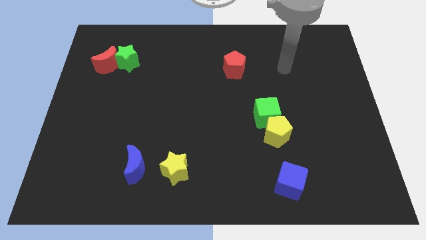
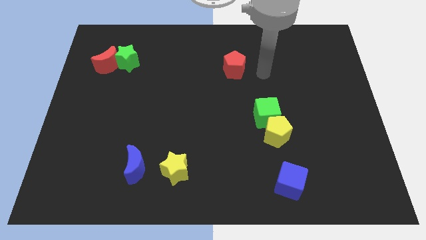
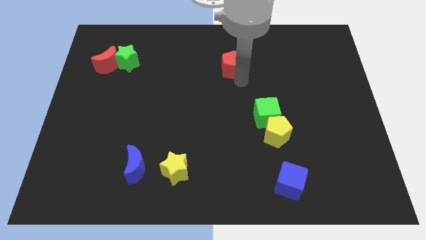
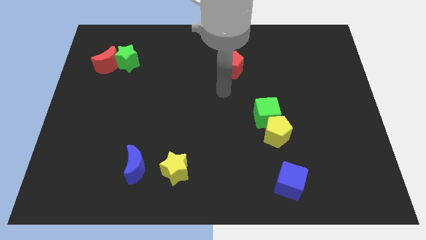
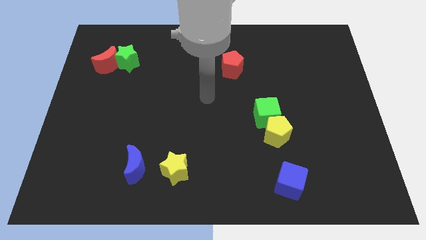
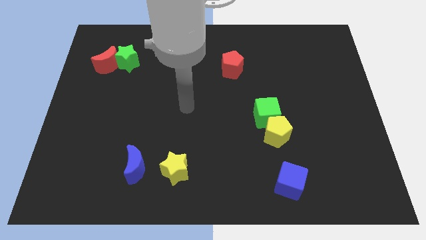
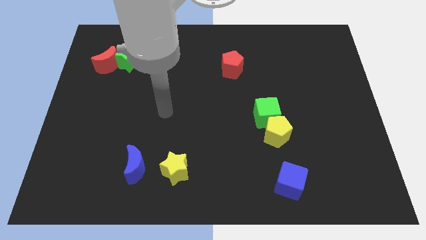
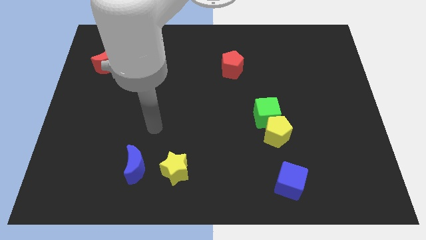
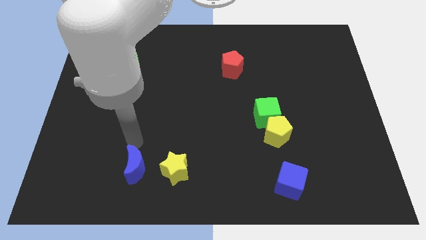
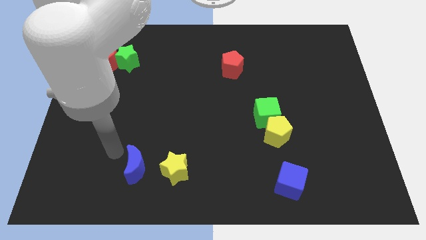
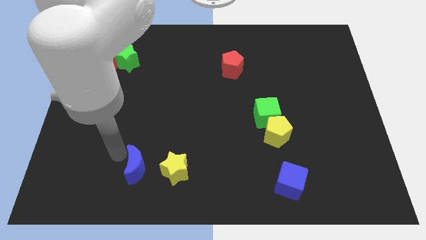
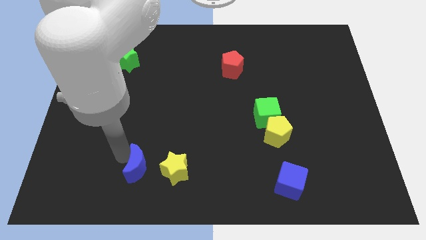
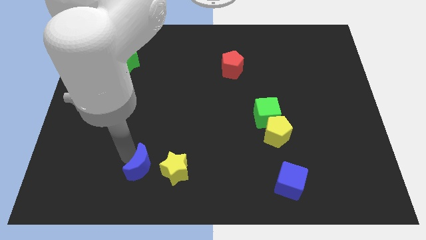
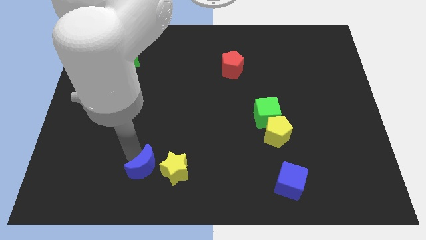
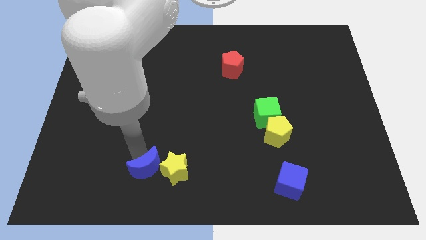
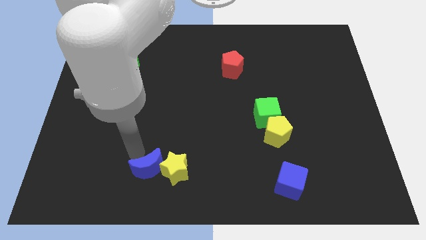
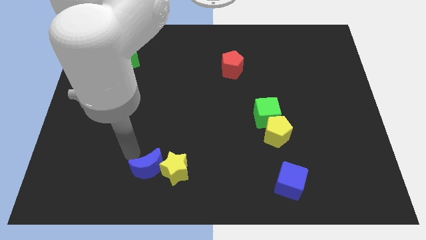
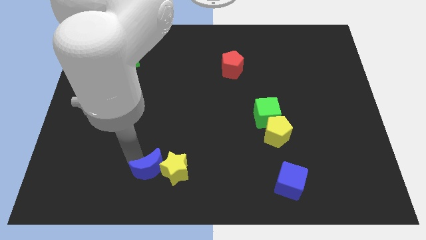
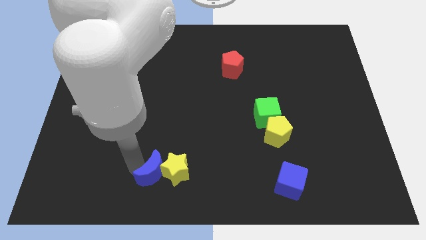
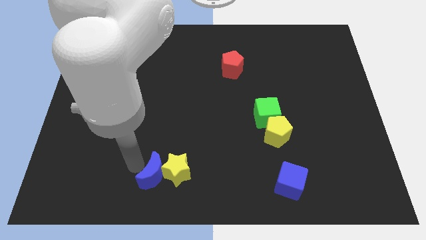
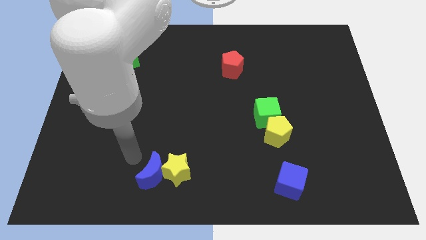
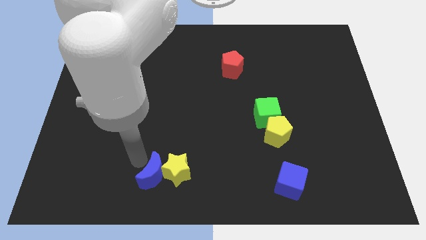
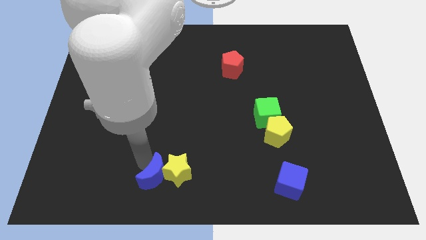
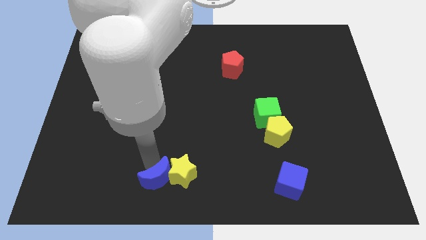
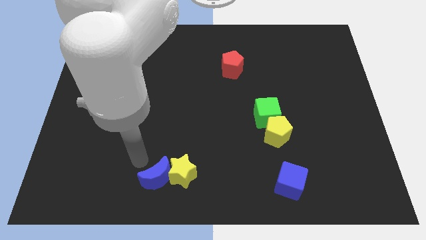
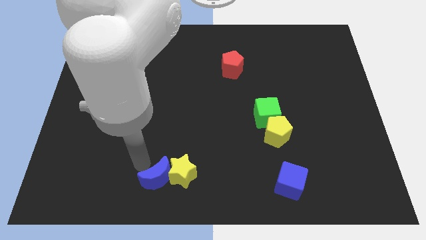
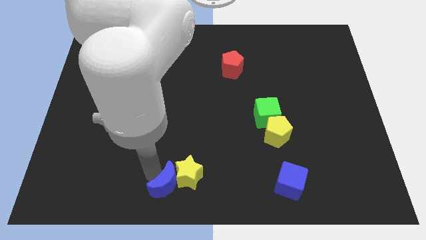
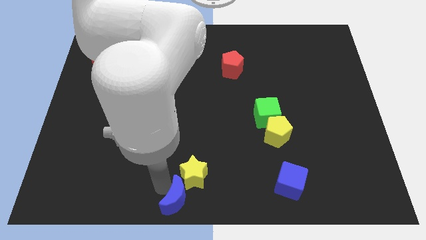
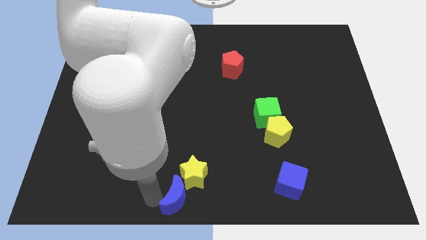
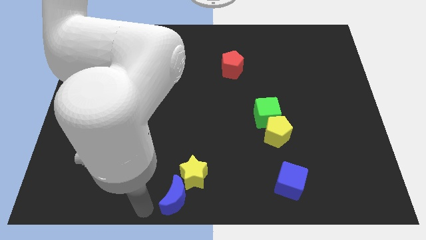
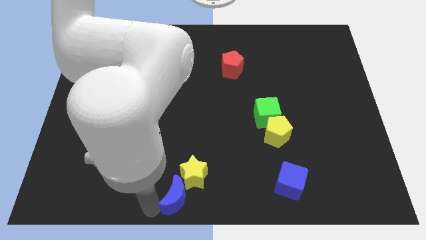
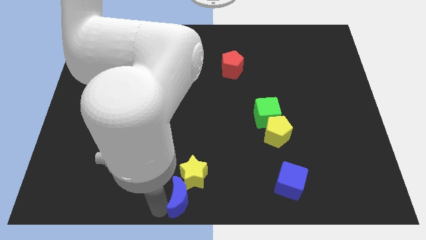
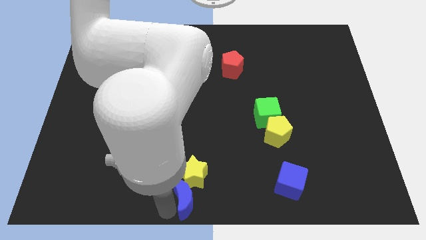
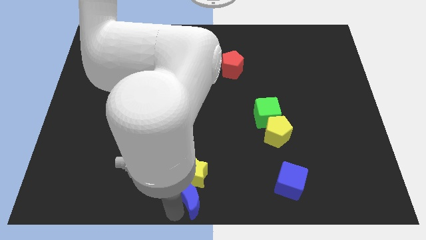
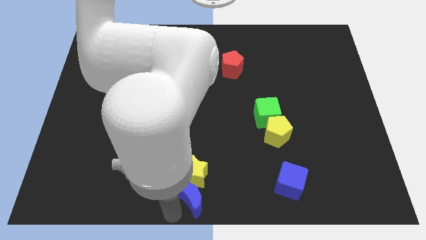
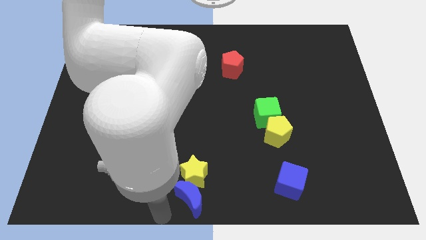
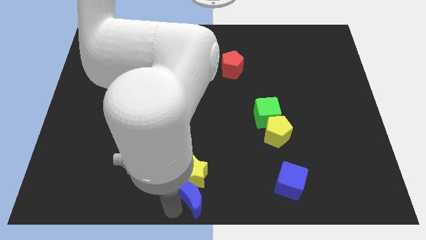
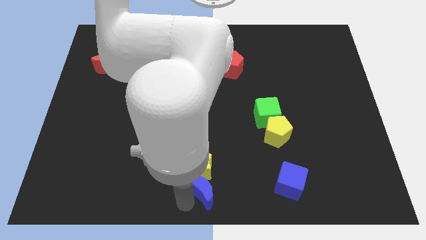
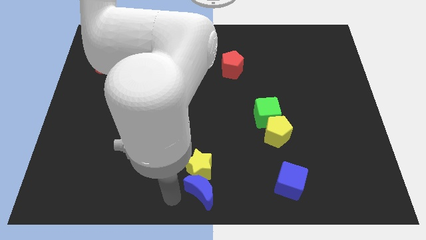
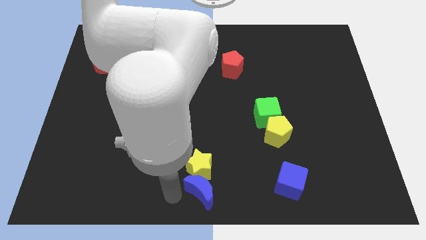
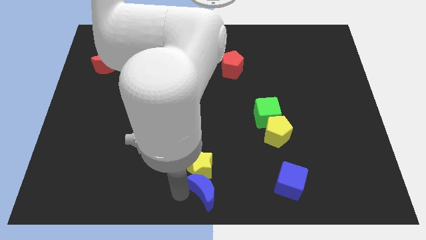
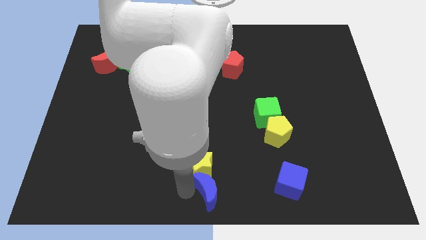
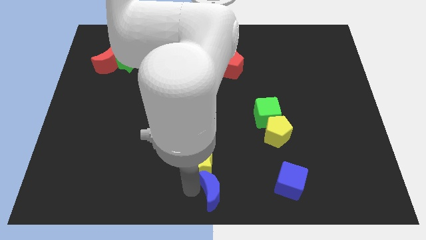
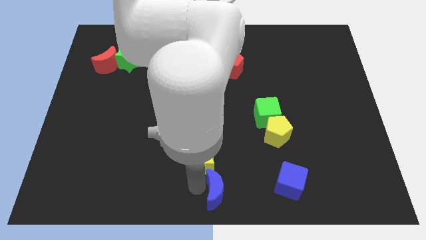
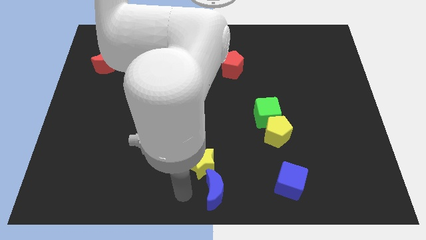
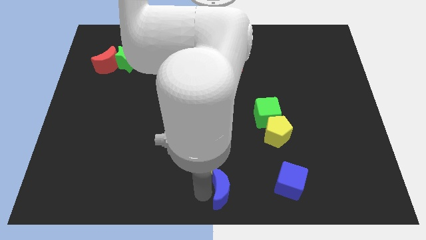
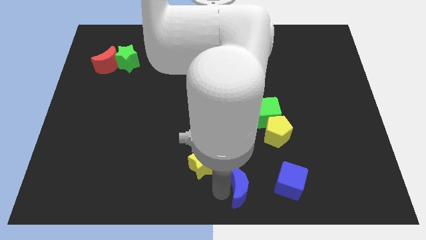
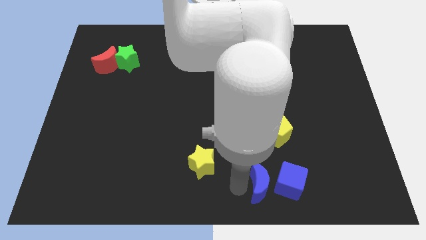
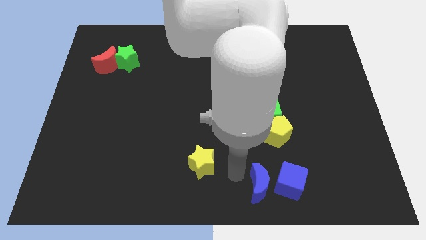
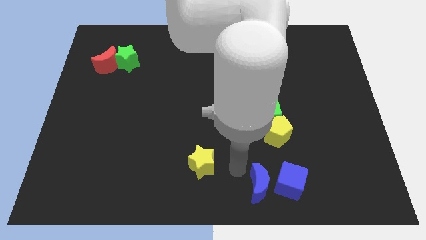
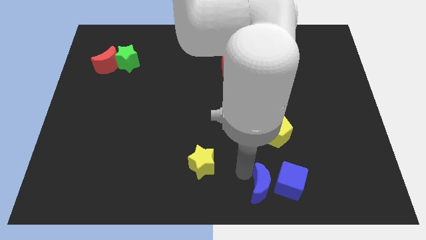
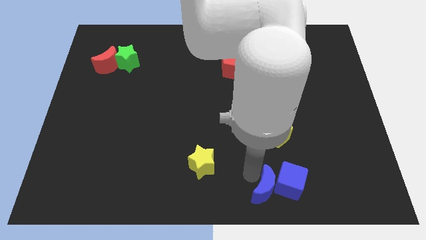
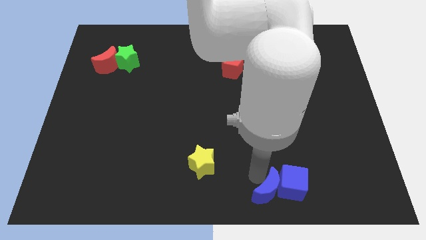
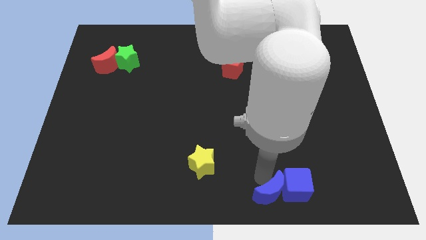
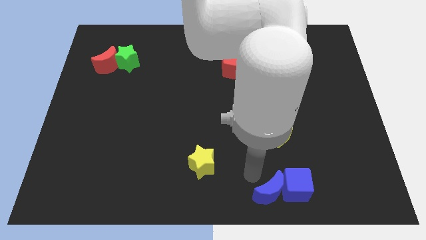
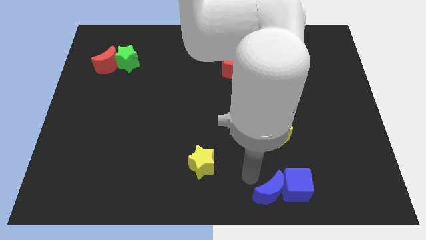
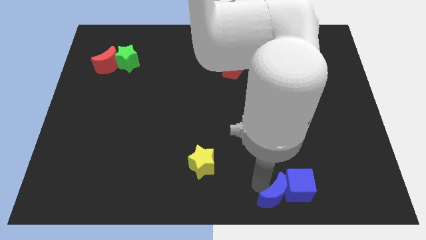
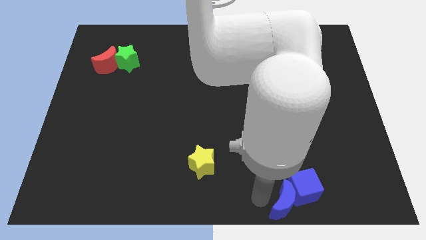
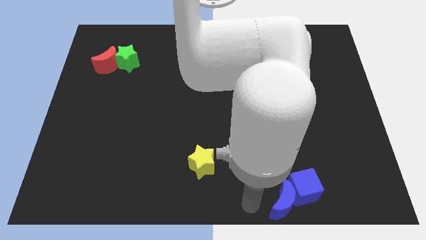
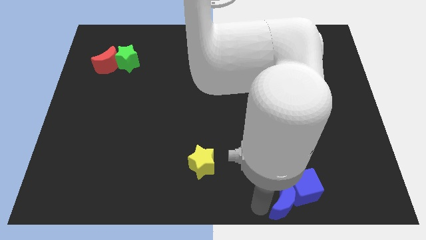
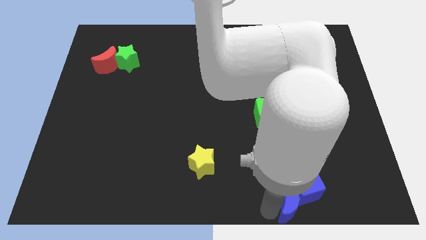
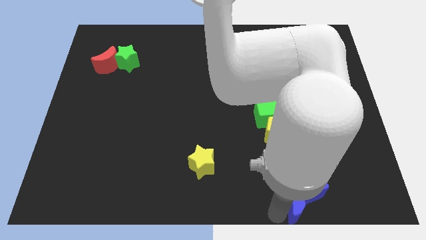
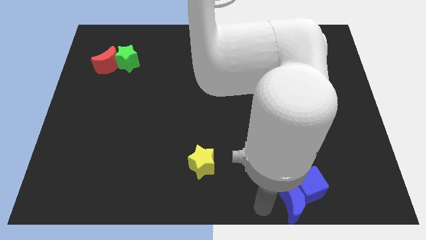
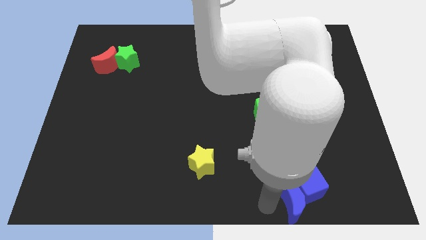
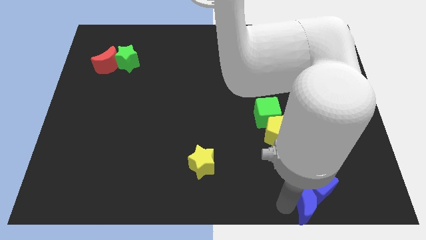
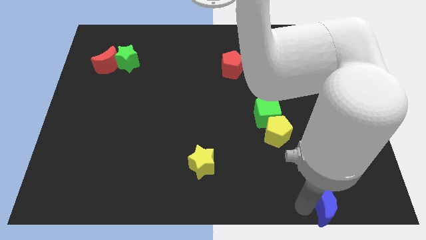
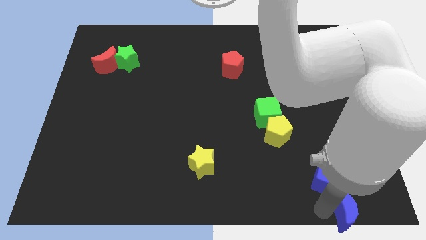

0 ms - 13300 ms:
slide the blue moon to the bottom right corner
